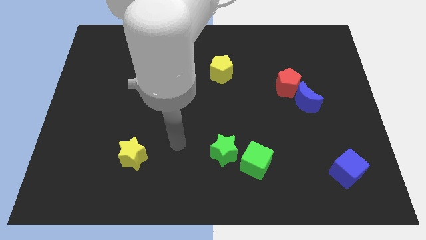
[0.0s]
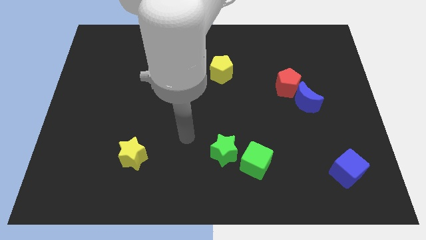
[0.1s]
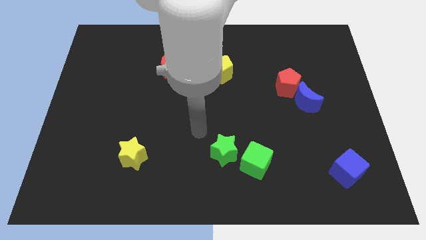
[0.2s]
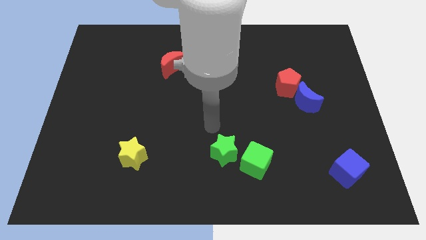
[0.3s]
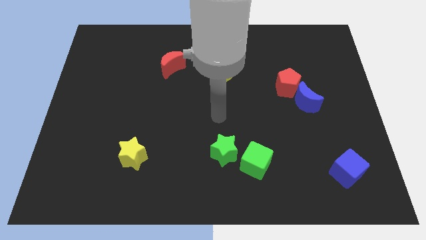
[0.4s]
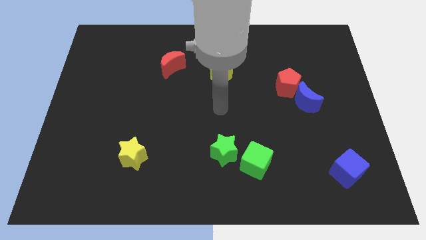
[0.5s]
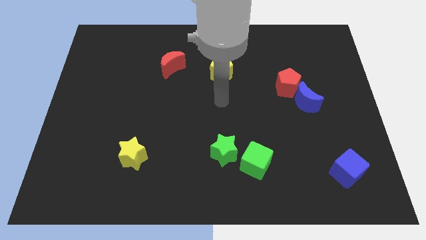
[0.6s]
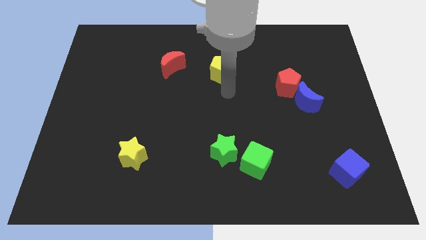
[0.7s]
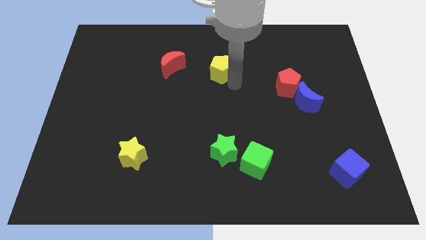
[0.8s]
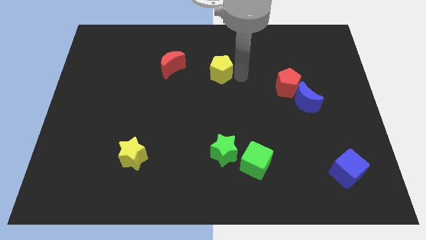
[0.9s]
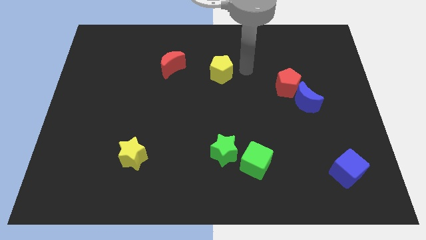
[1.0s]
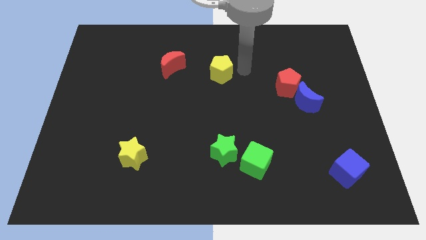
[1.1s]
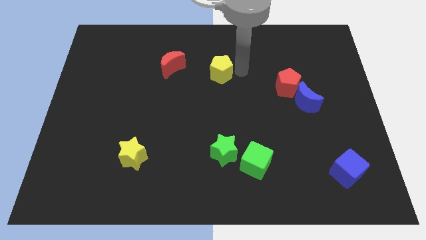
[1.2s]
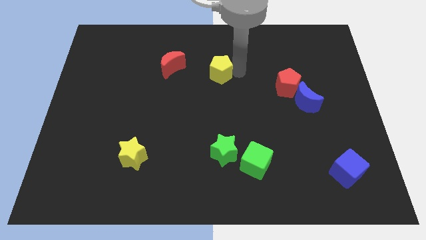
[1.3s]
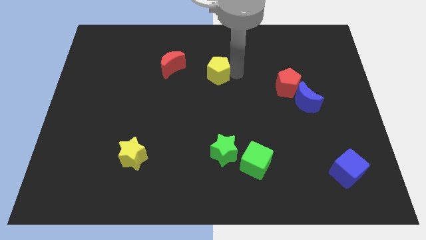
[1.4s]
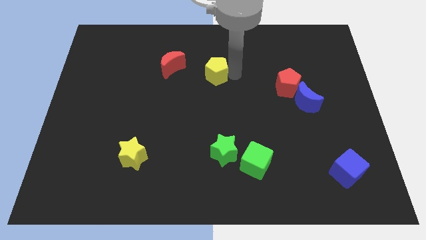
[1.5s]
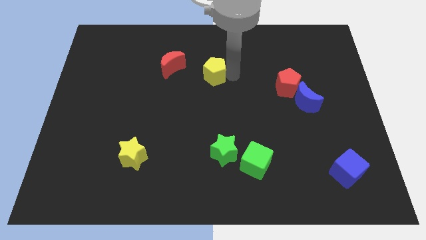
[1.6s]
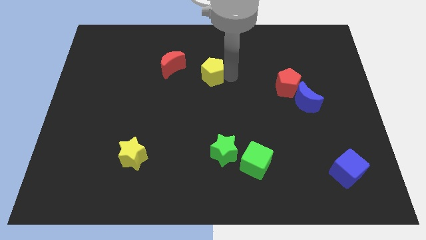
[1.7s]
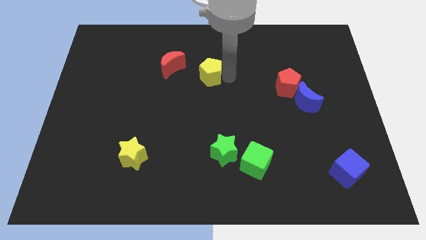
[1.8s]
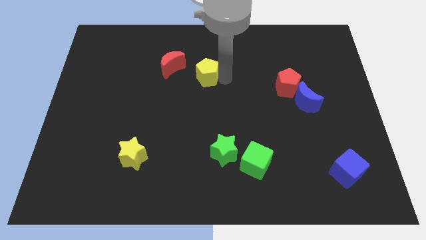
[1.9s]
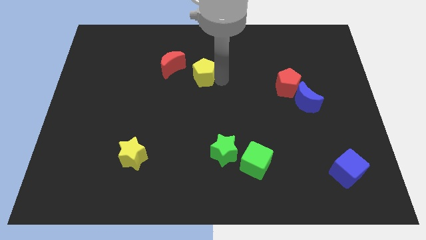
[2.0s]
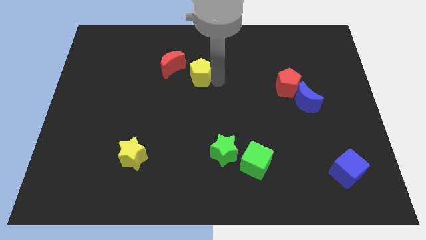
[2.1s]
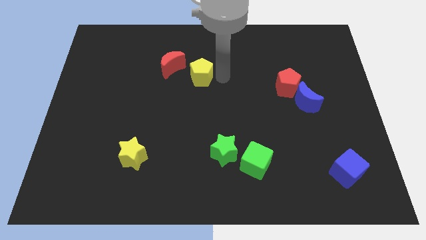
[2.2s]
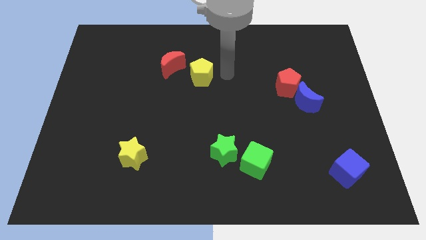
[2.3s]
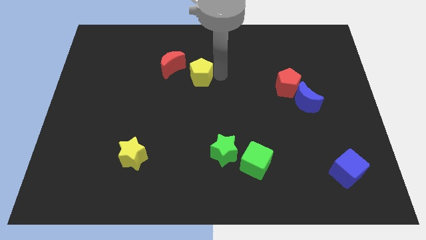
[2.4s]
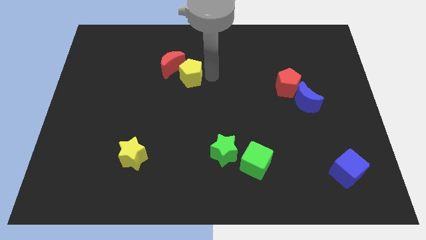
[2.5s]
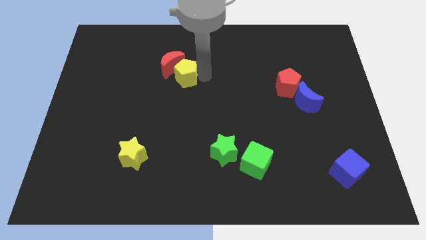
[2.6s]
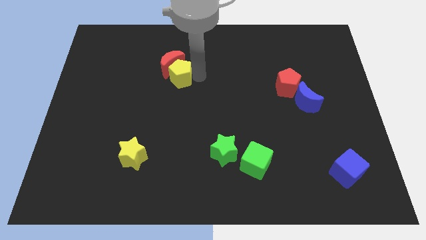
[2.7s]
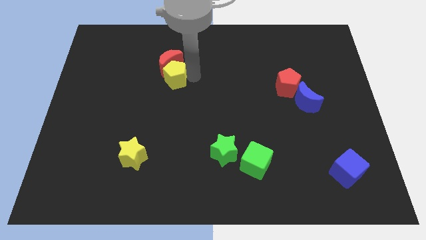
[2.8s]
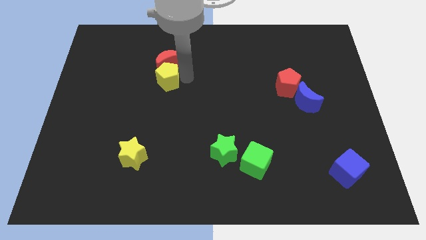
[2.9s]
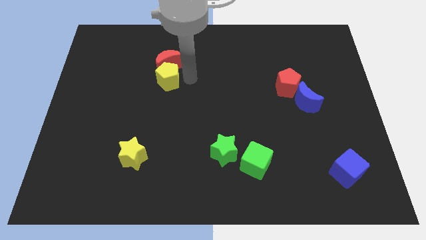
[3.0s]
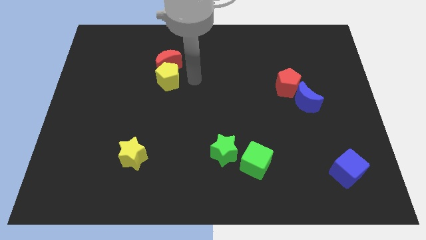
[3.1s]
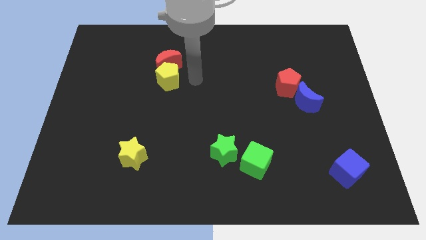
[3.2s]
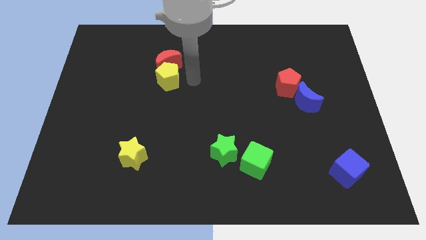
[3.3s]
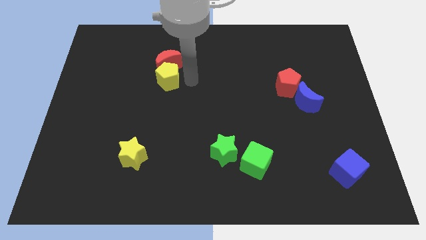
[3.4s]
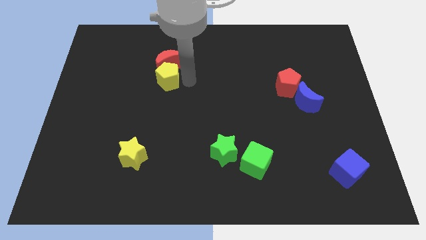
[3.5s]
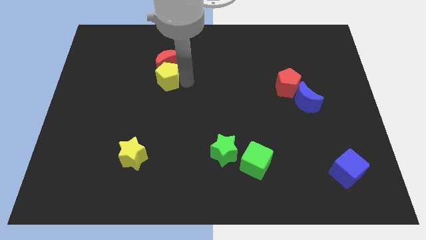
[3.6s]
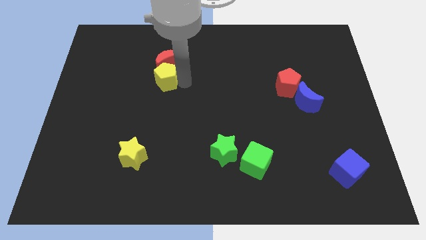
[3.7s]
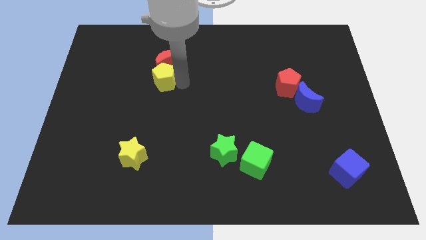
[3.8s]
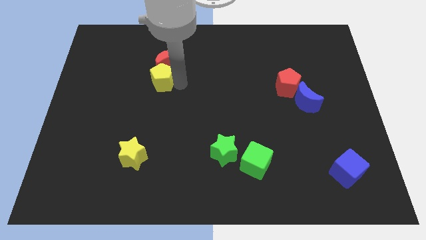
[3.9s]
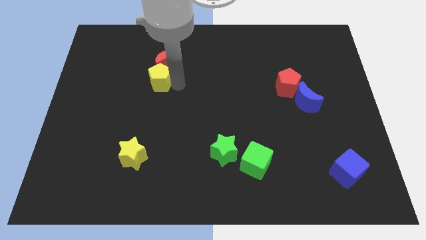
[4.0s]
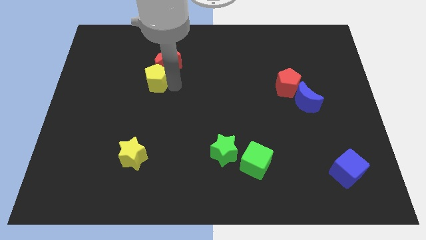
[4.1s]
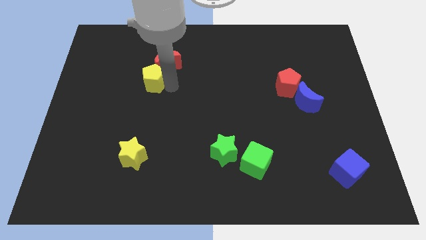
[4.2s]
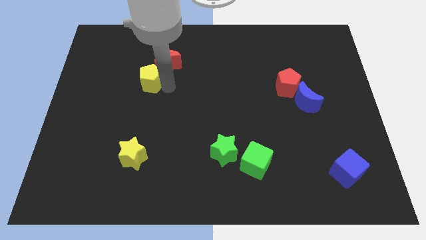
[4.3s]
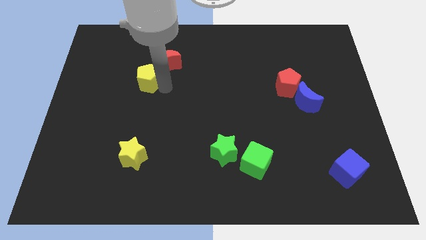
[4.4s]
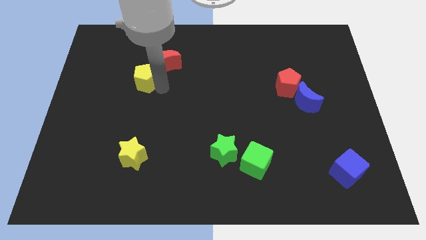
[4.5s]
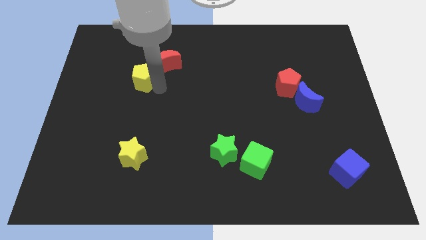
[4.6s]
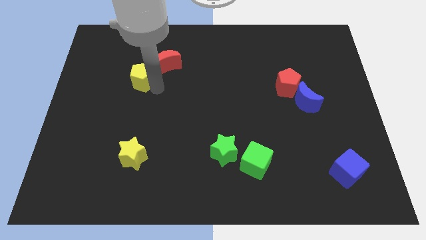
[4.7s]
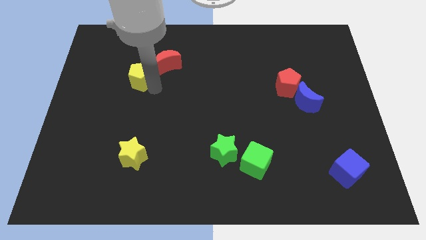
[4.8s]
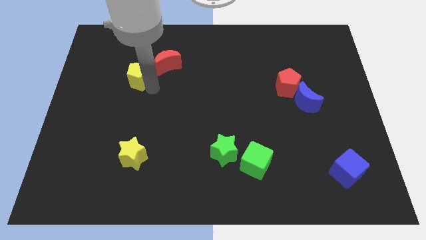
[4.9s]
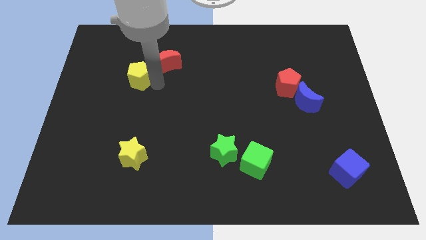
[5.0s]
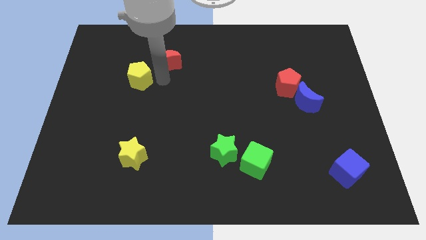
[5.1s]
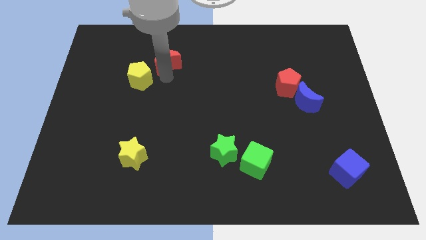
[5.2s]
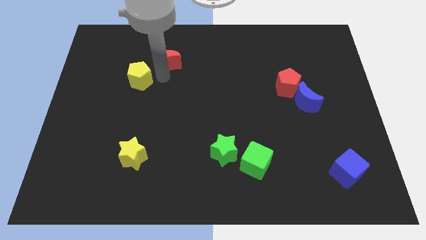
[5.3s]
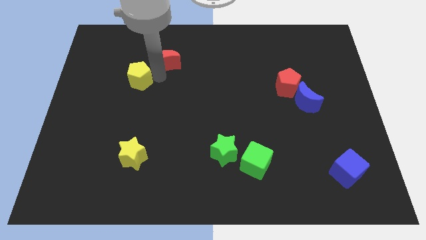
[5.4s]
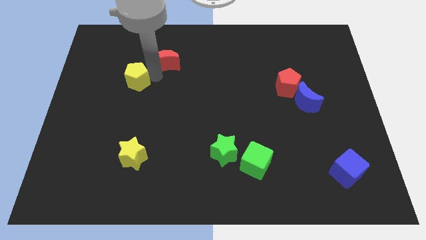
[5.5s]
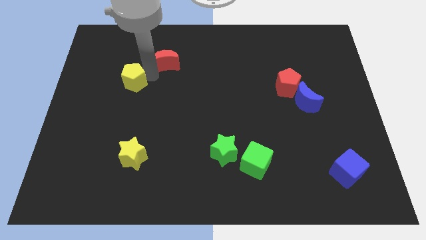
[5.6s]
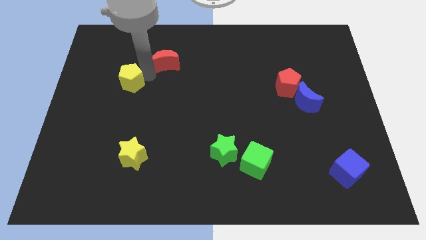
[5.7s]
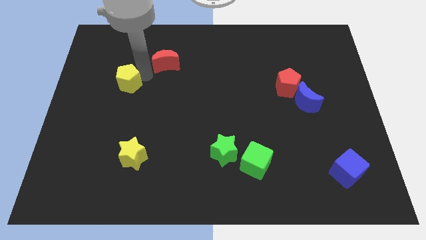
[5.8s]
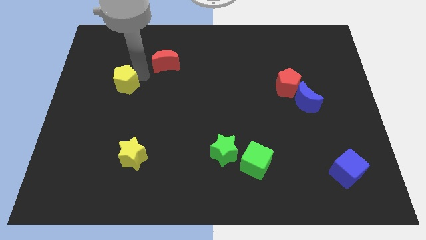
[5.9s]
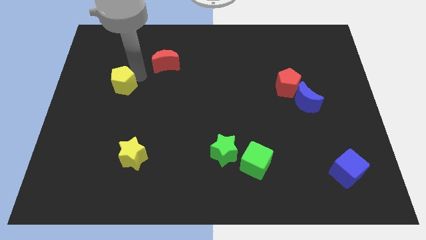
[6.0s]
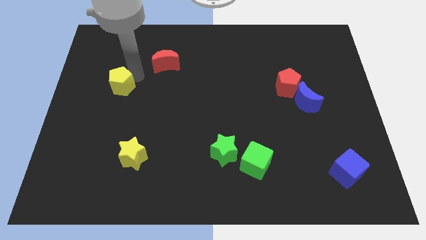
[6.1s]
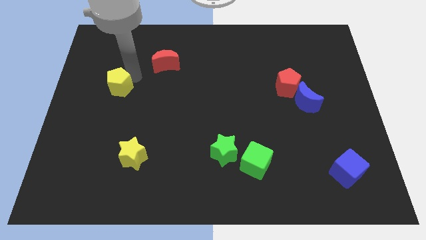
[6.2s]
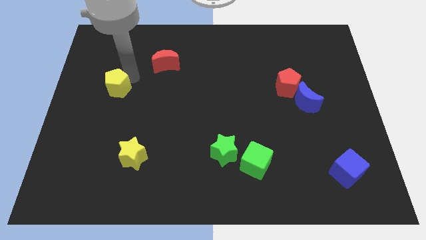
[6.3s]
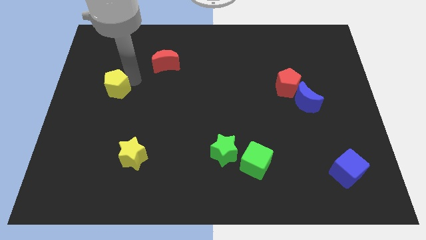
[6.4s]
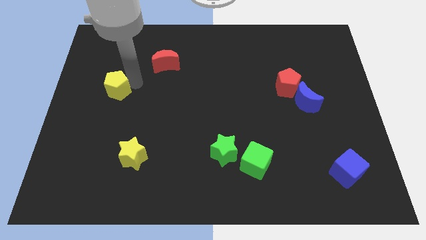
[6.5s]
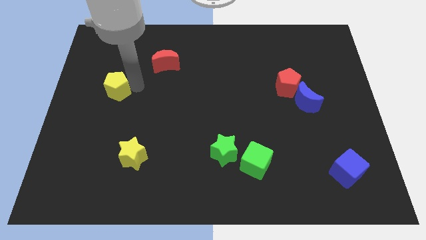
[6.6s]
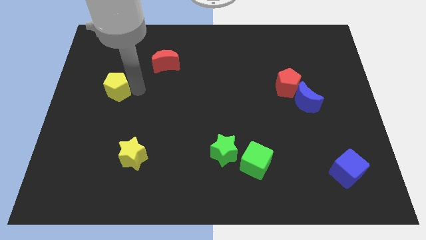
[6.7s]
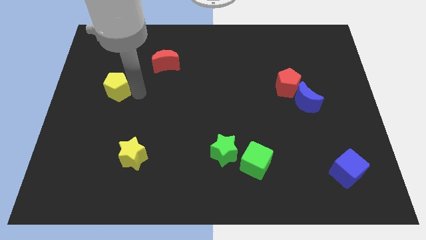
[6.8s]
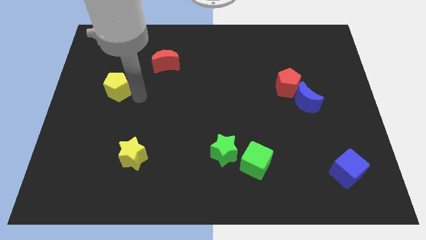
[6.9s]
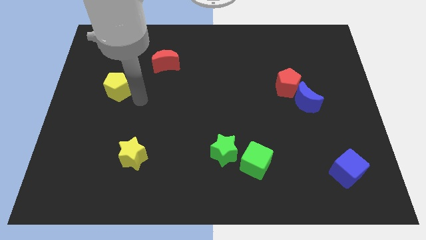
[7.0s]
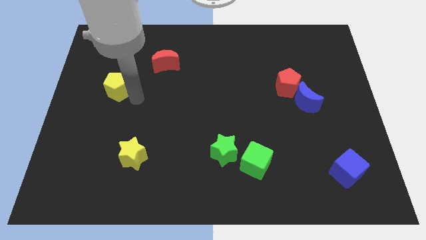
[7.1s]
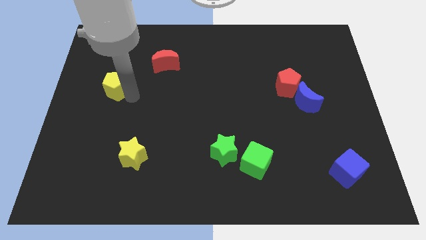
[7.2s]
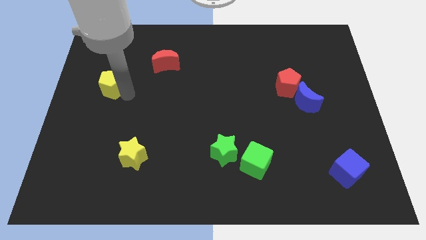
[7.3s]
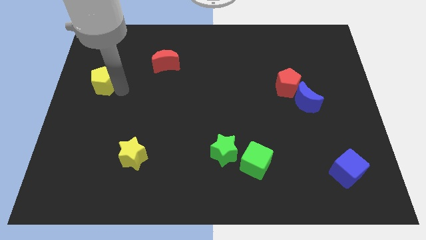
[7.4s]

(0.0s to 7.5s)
slide the yellow pentagon to the left side of the board
